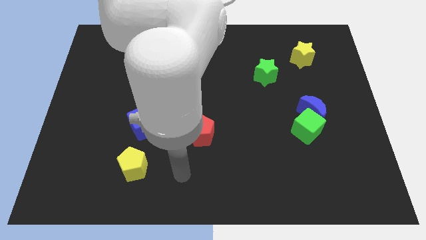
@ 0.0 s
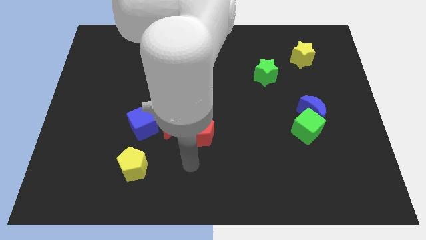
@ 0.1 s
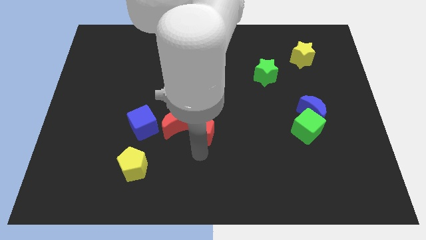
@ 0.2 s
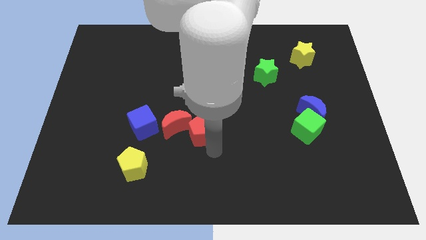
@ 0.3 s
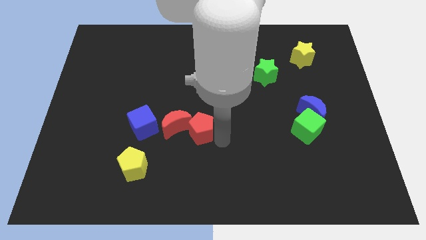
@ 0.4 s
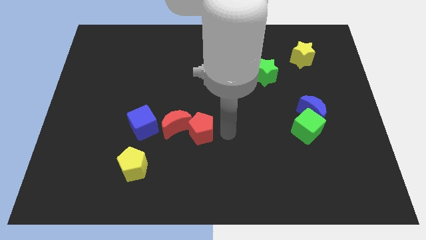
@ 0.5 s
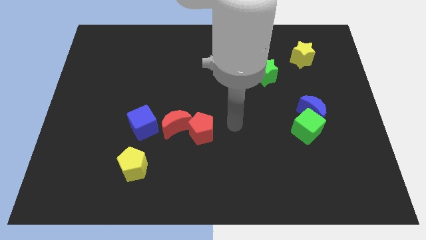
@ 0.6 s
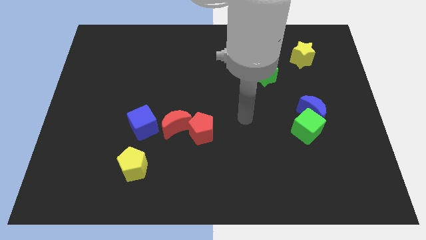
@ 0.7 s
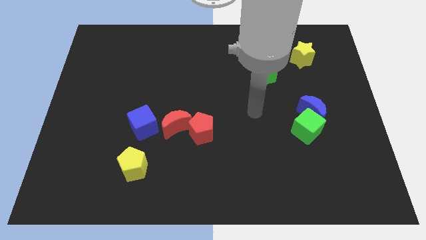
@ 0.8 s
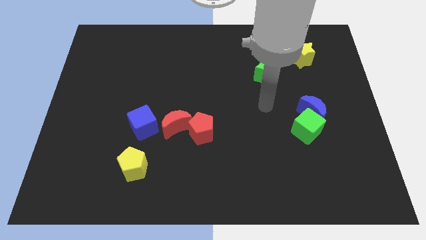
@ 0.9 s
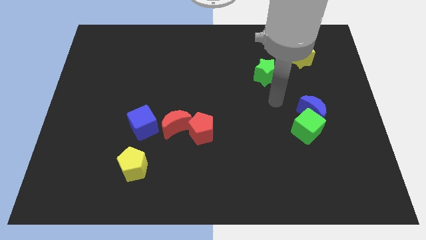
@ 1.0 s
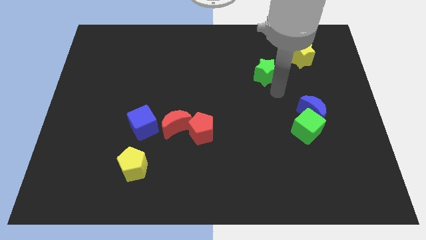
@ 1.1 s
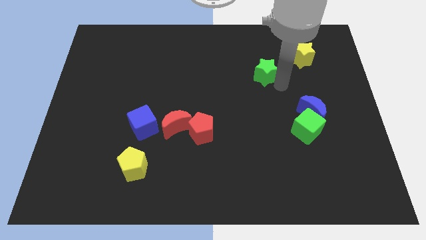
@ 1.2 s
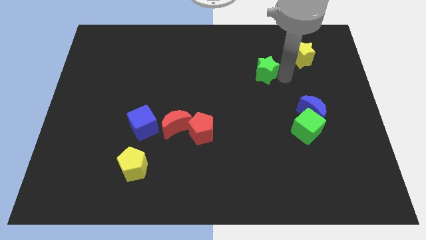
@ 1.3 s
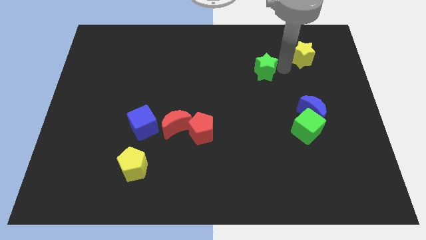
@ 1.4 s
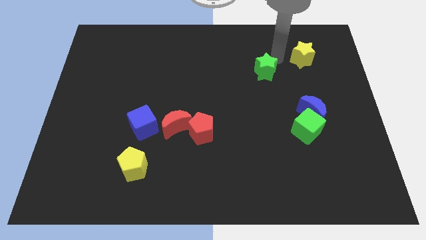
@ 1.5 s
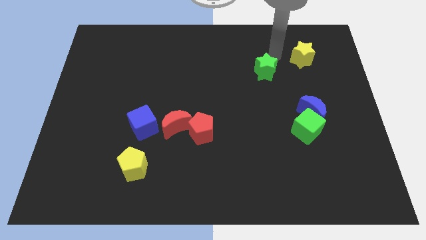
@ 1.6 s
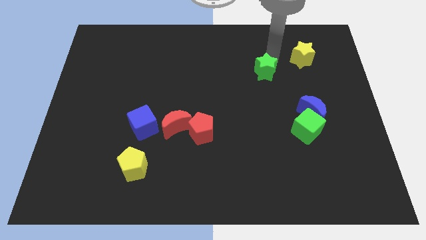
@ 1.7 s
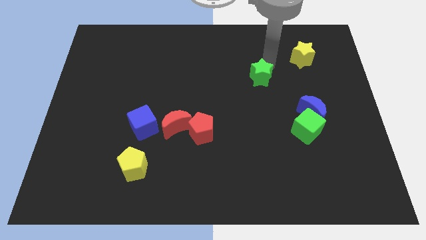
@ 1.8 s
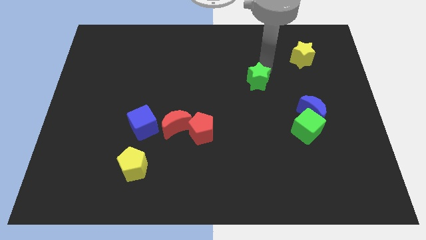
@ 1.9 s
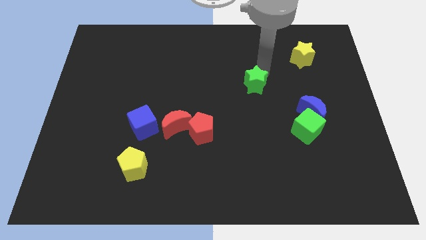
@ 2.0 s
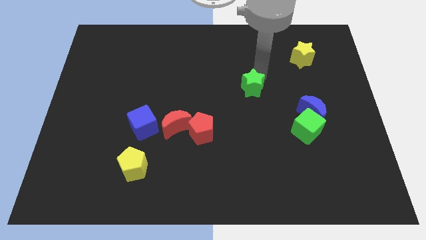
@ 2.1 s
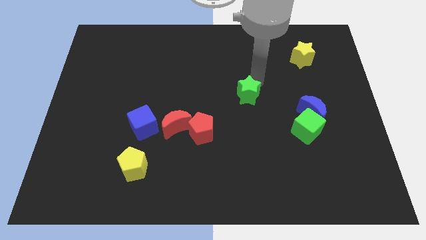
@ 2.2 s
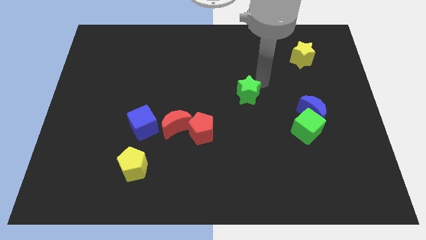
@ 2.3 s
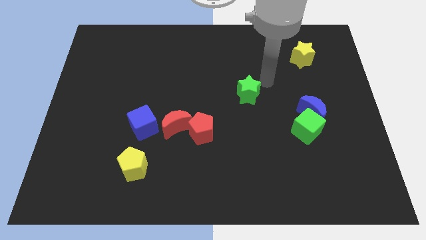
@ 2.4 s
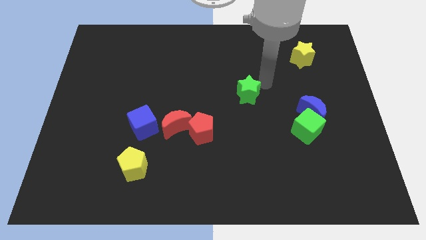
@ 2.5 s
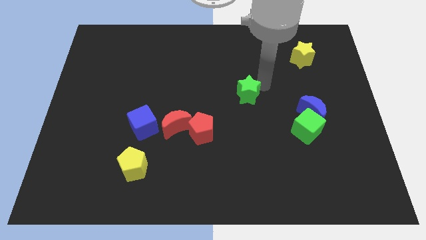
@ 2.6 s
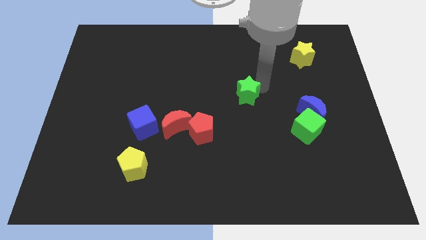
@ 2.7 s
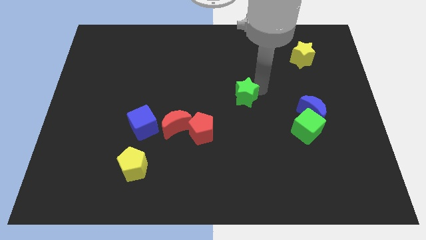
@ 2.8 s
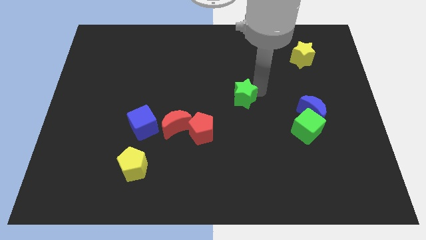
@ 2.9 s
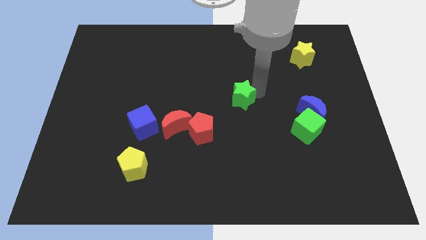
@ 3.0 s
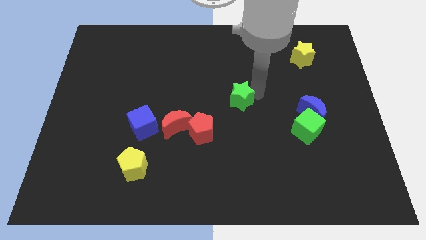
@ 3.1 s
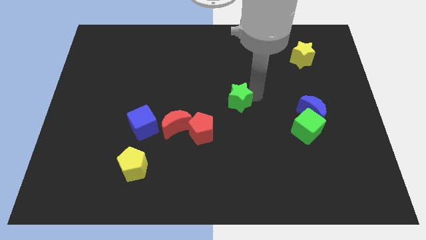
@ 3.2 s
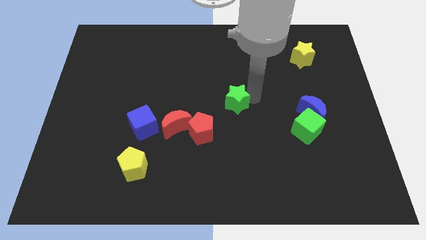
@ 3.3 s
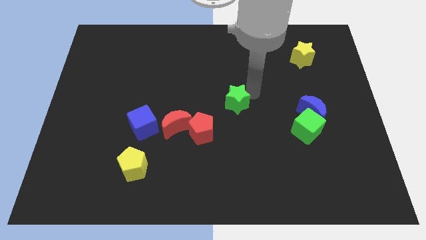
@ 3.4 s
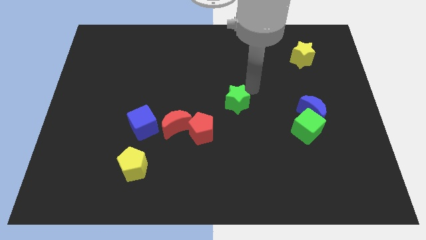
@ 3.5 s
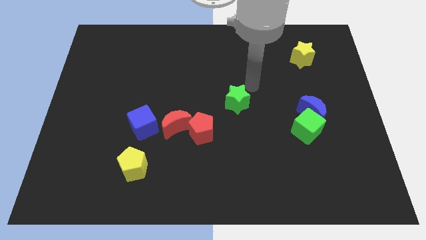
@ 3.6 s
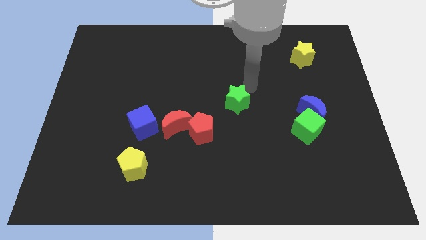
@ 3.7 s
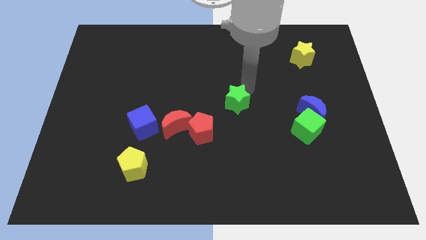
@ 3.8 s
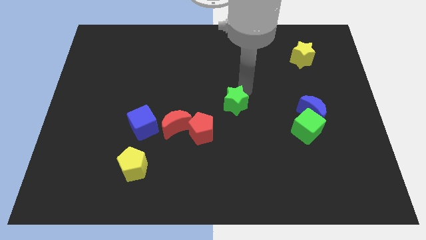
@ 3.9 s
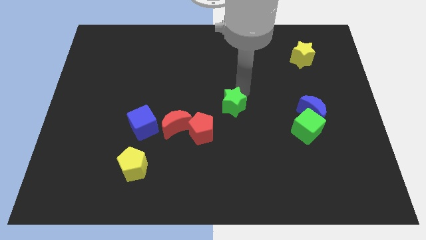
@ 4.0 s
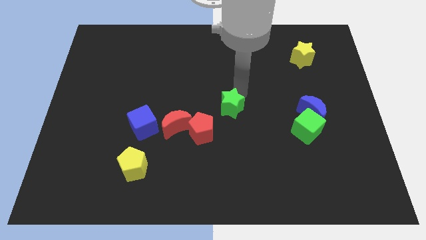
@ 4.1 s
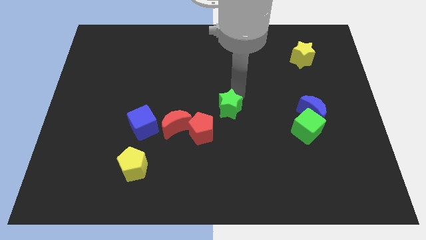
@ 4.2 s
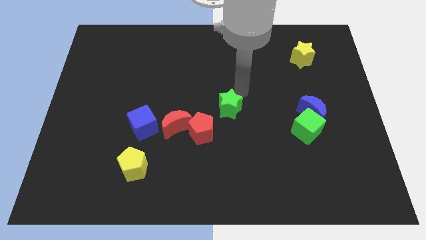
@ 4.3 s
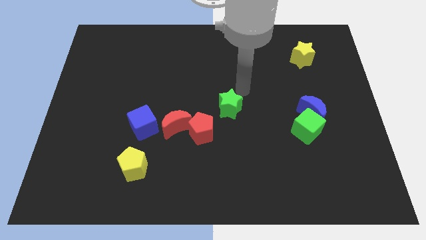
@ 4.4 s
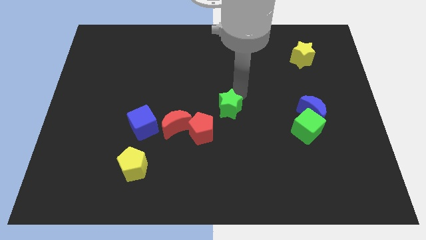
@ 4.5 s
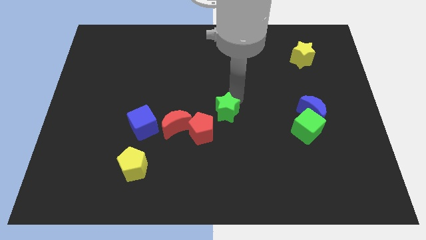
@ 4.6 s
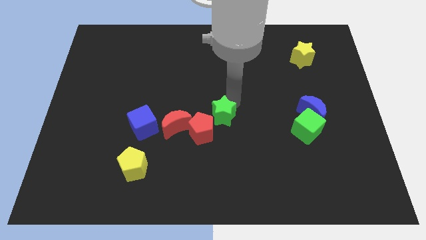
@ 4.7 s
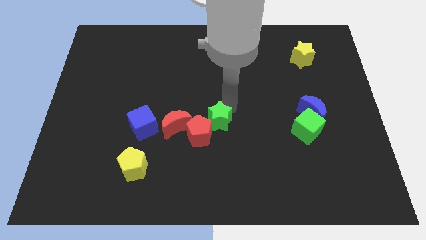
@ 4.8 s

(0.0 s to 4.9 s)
put the green star next to the red pentagon

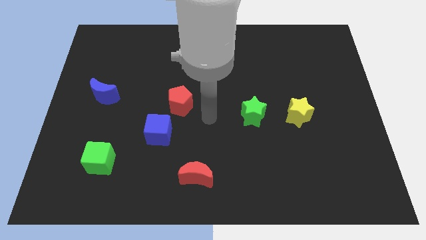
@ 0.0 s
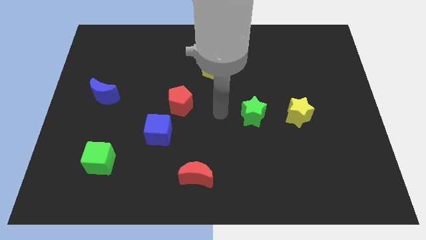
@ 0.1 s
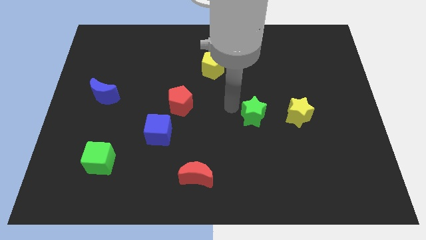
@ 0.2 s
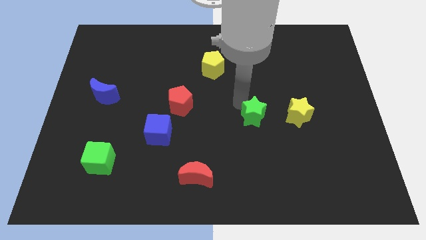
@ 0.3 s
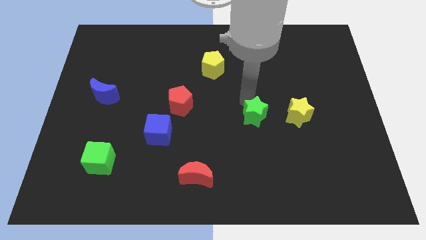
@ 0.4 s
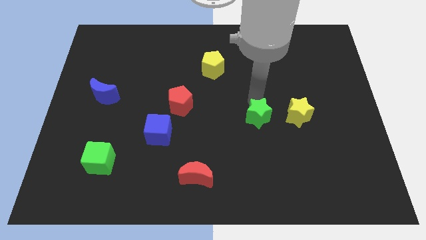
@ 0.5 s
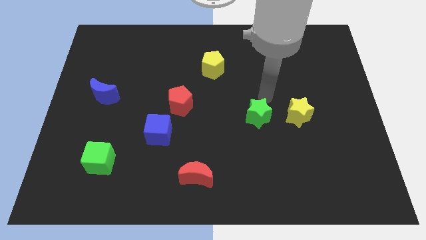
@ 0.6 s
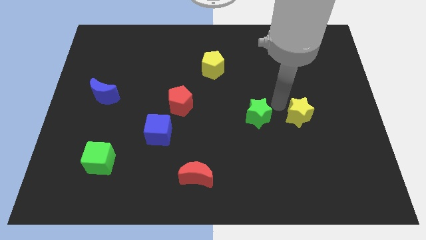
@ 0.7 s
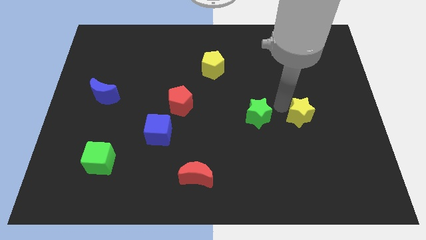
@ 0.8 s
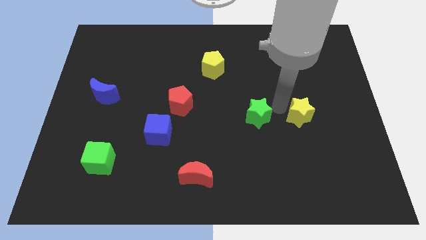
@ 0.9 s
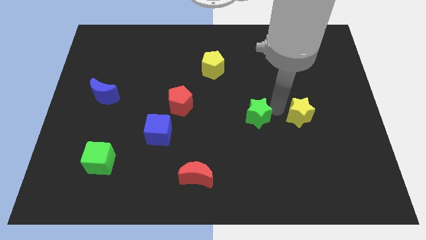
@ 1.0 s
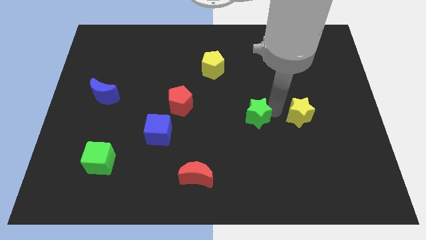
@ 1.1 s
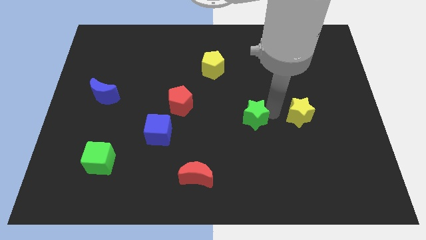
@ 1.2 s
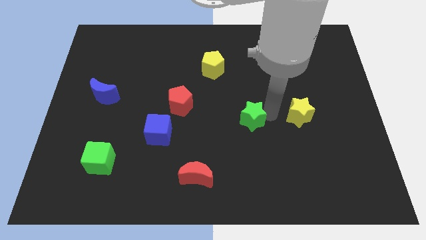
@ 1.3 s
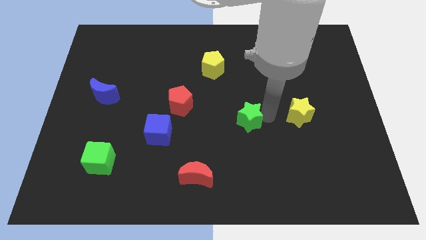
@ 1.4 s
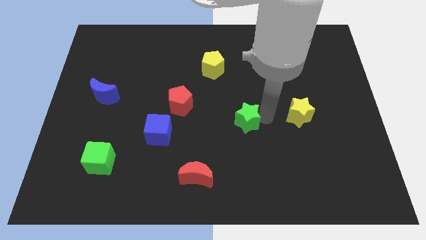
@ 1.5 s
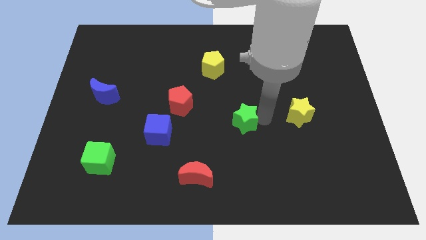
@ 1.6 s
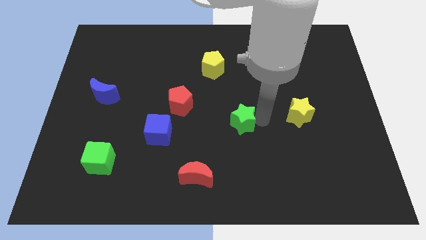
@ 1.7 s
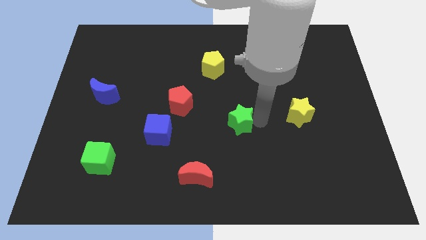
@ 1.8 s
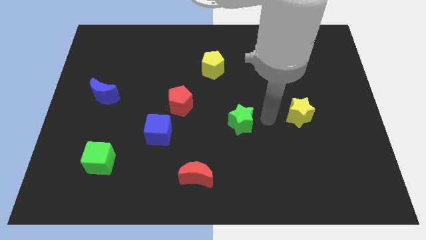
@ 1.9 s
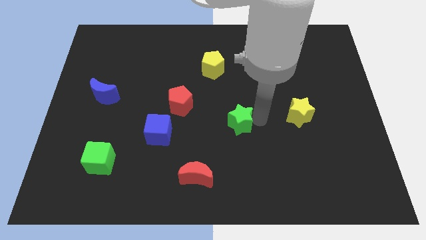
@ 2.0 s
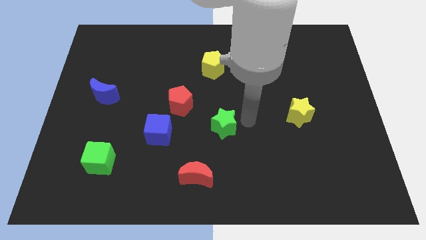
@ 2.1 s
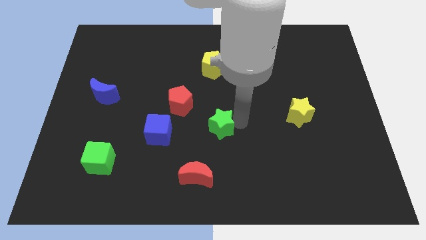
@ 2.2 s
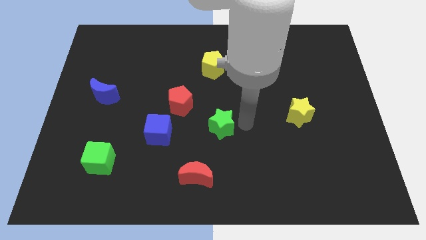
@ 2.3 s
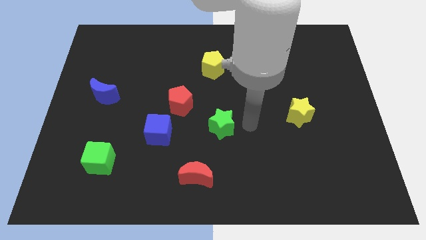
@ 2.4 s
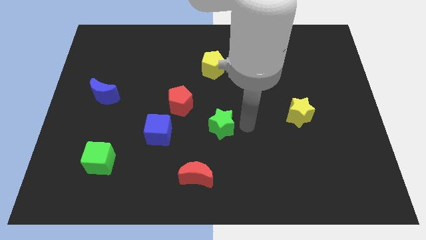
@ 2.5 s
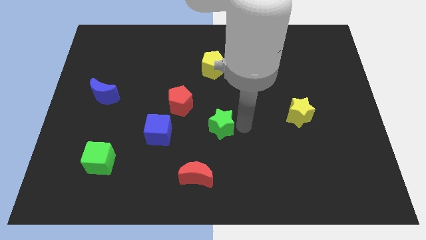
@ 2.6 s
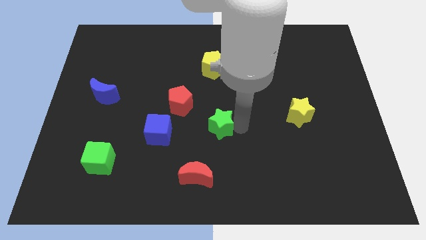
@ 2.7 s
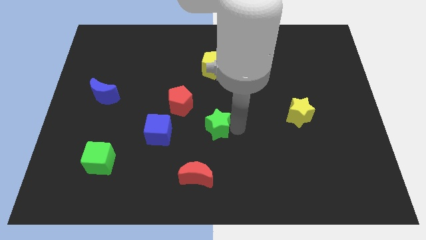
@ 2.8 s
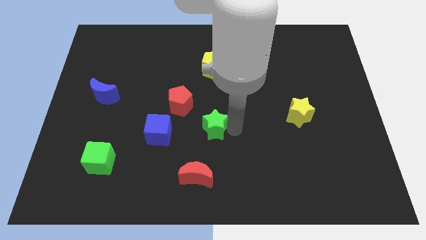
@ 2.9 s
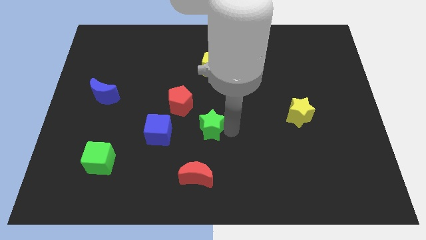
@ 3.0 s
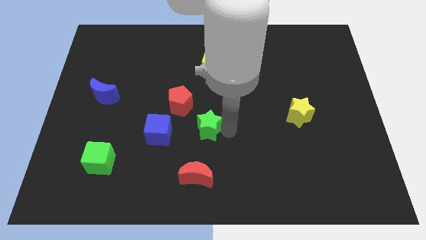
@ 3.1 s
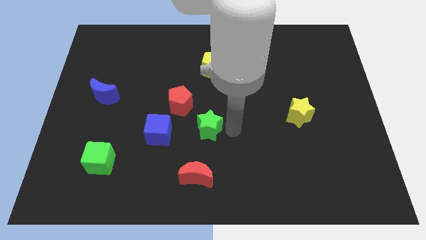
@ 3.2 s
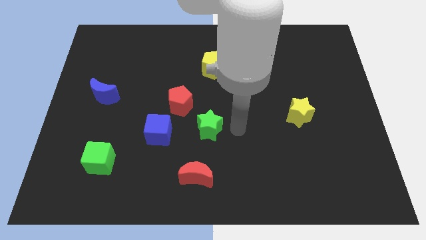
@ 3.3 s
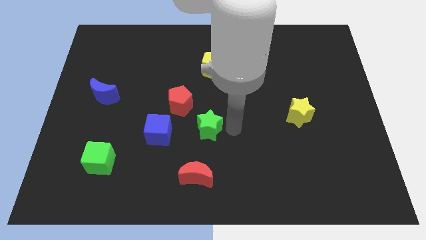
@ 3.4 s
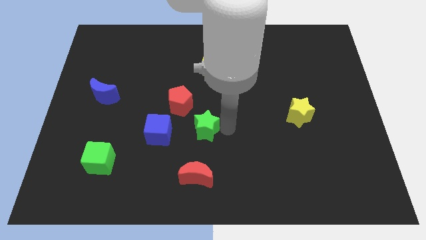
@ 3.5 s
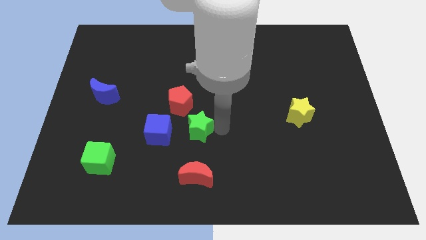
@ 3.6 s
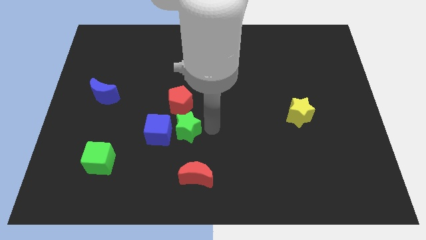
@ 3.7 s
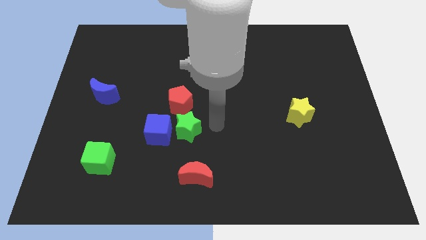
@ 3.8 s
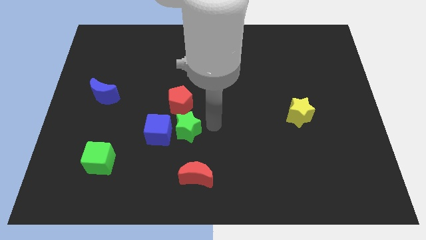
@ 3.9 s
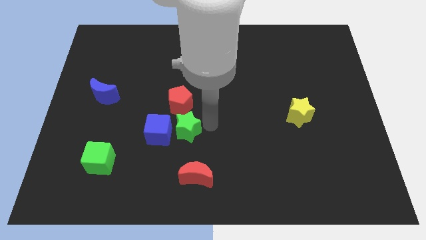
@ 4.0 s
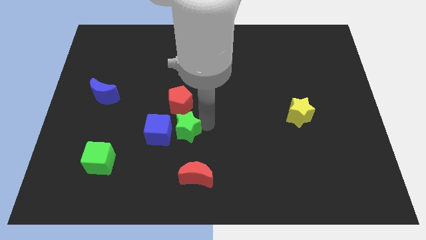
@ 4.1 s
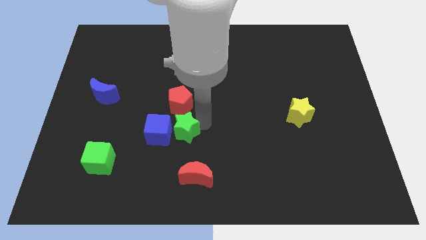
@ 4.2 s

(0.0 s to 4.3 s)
push the green star next to the blue cube
